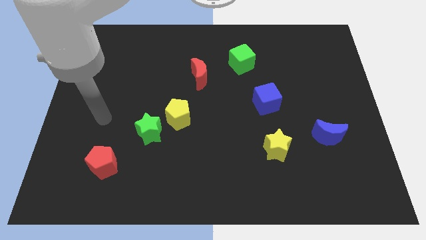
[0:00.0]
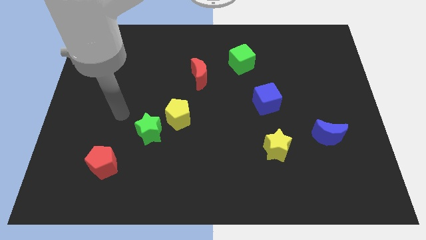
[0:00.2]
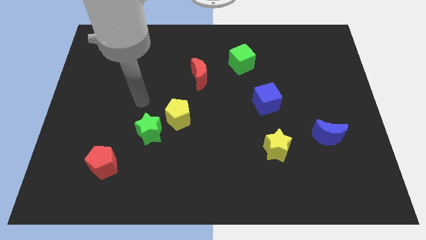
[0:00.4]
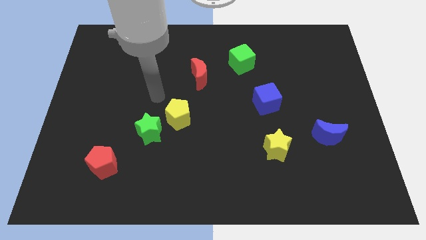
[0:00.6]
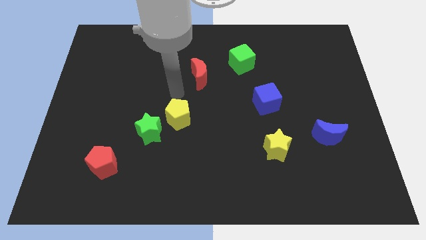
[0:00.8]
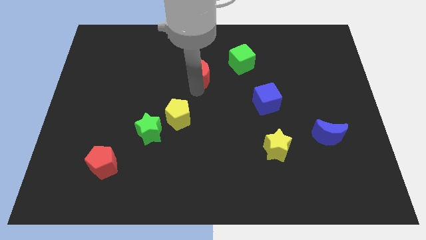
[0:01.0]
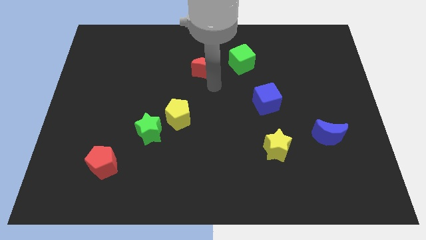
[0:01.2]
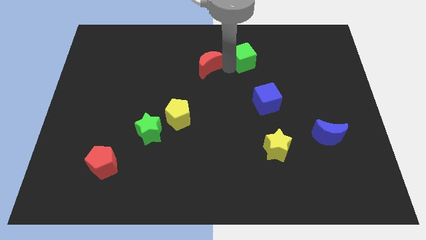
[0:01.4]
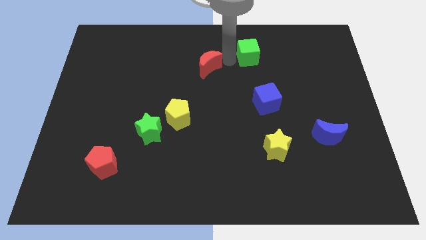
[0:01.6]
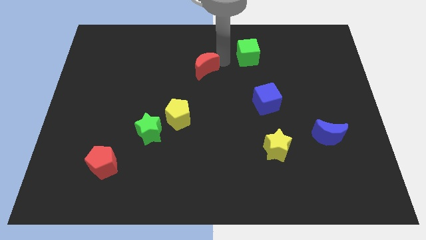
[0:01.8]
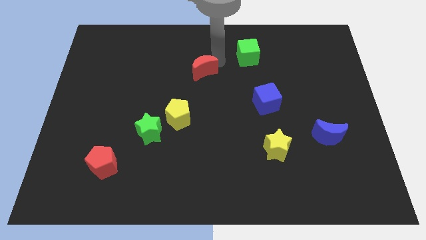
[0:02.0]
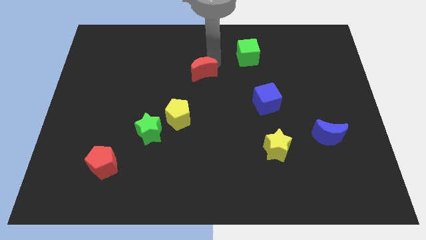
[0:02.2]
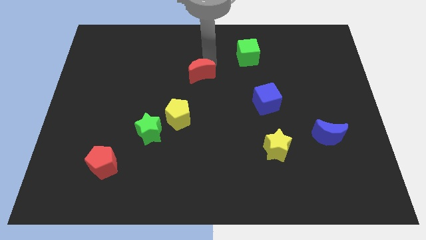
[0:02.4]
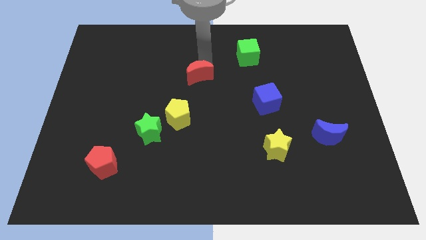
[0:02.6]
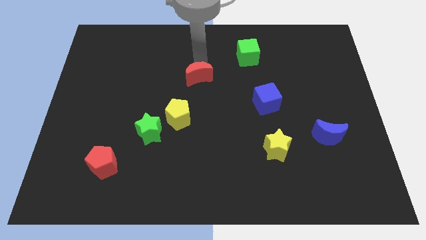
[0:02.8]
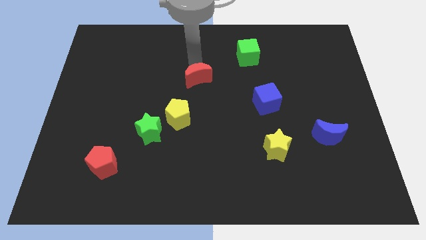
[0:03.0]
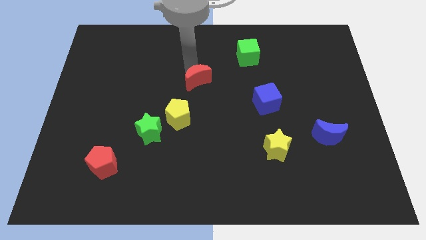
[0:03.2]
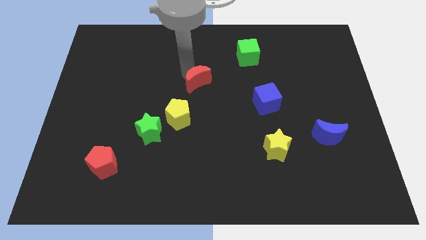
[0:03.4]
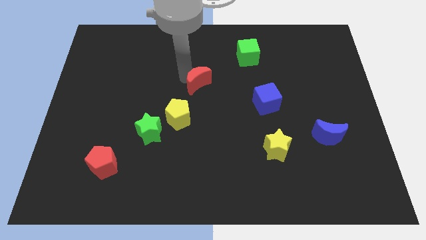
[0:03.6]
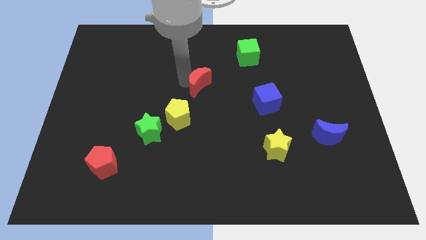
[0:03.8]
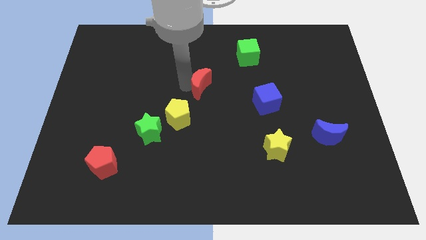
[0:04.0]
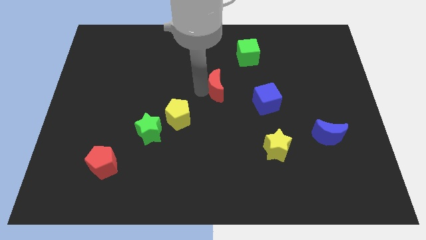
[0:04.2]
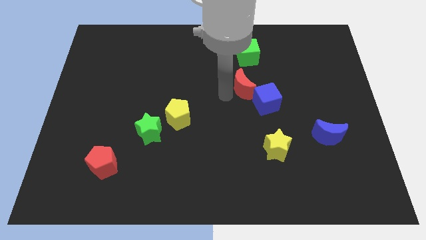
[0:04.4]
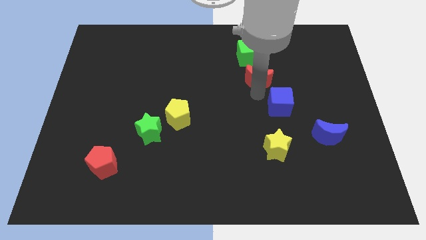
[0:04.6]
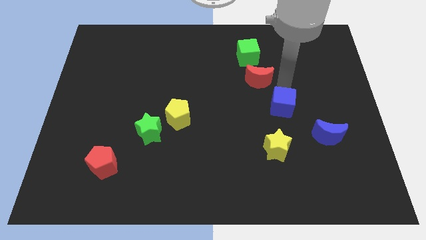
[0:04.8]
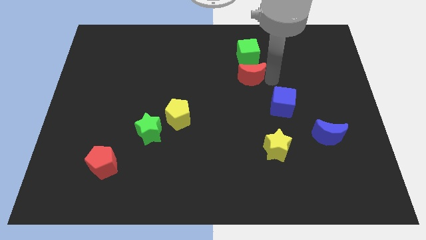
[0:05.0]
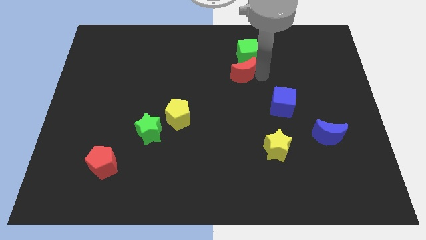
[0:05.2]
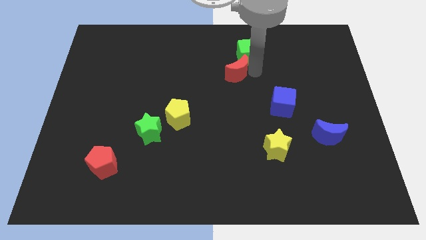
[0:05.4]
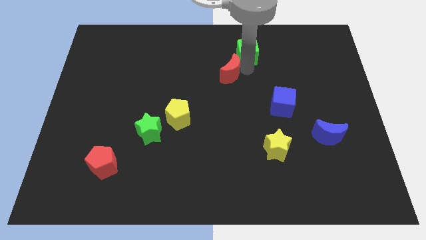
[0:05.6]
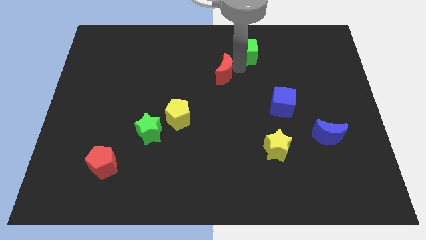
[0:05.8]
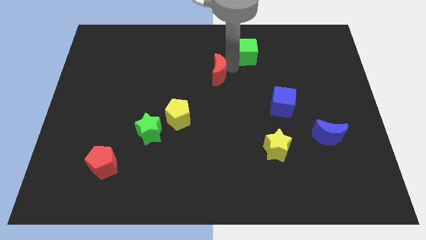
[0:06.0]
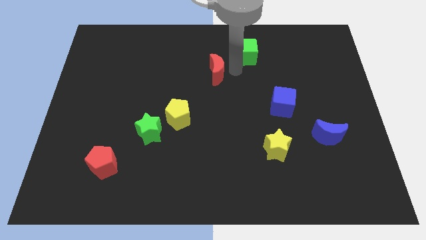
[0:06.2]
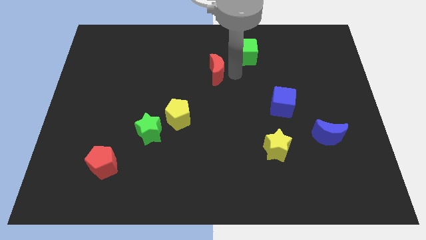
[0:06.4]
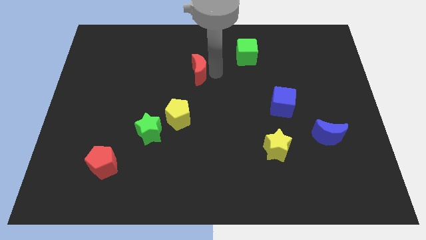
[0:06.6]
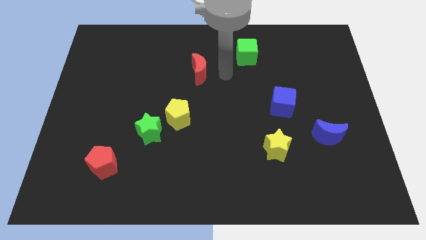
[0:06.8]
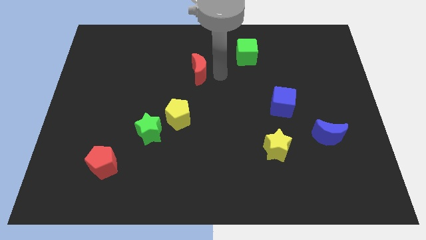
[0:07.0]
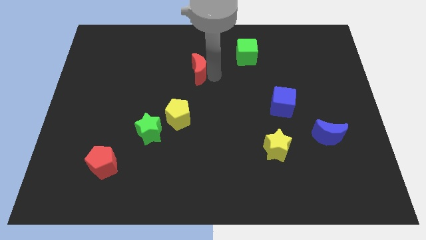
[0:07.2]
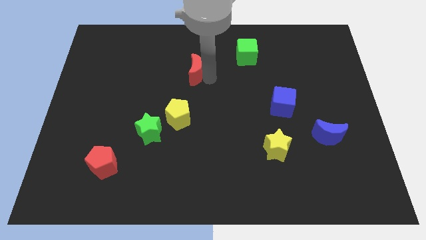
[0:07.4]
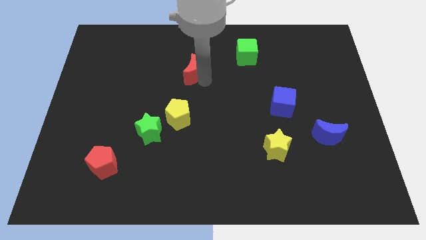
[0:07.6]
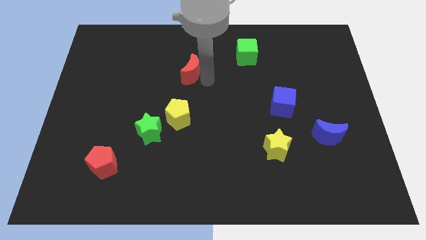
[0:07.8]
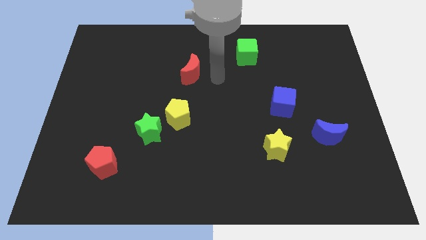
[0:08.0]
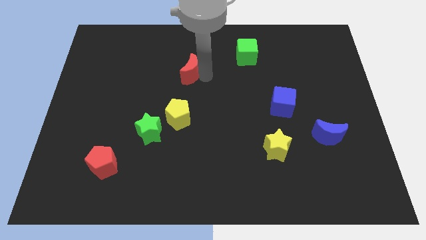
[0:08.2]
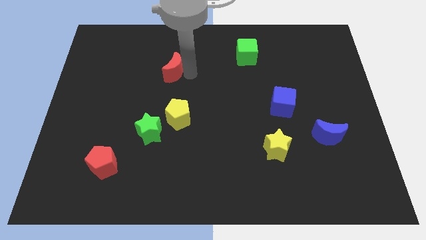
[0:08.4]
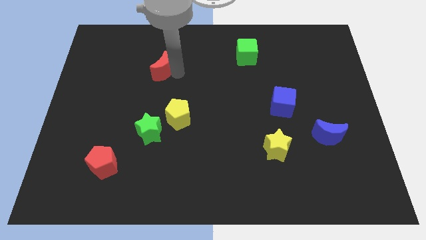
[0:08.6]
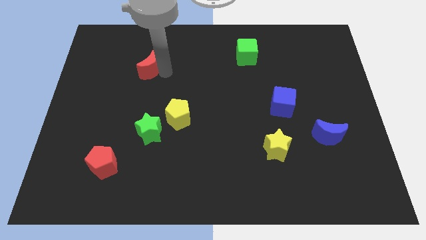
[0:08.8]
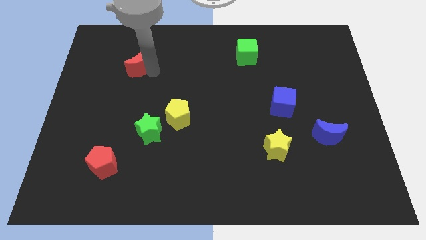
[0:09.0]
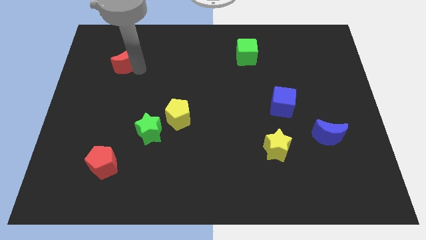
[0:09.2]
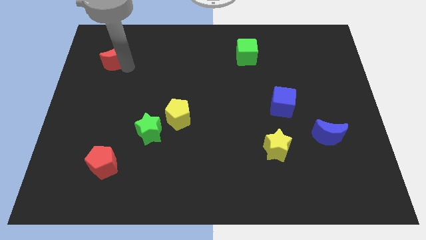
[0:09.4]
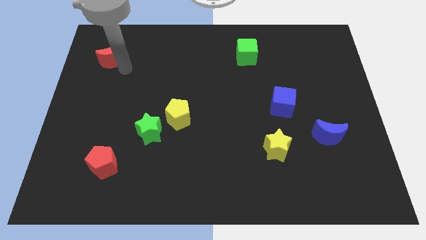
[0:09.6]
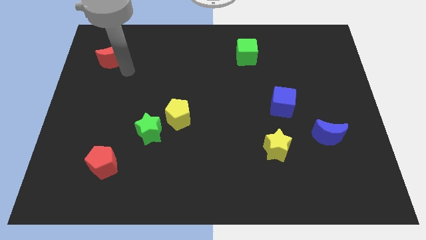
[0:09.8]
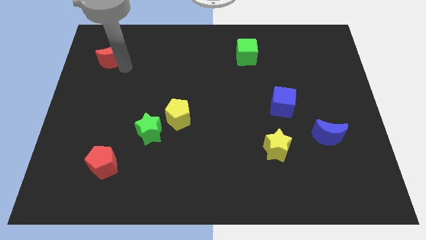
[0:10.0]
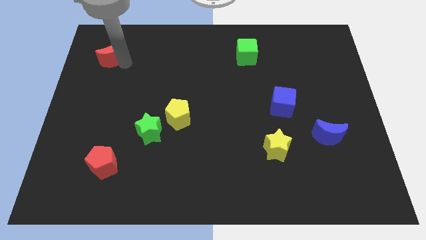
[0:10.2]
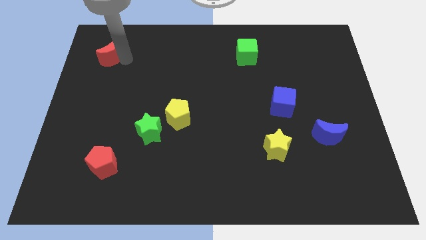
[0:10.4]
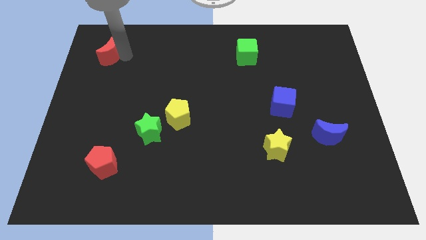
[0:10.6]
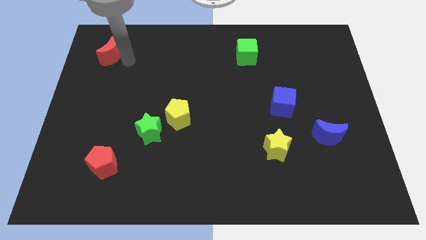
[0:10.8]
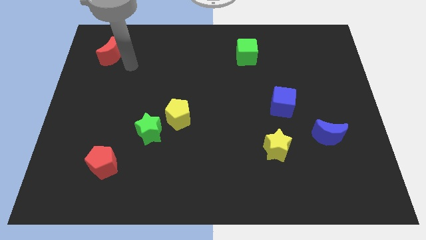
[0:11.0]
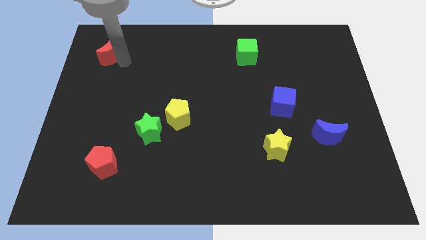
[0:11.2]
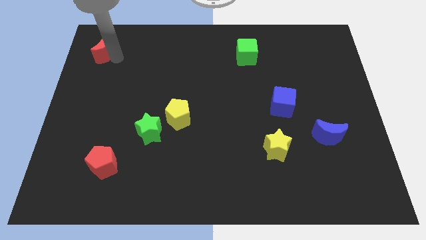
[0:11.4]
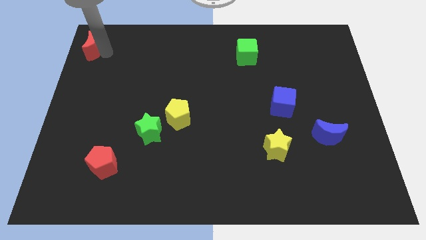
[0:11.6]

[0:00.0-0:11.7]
put the red moon to the top left corner

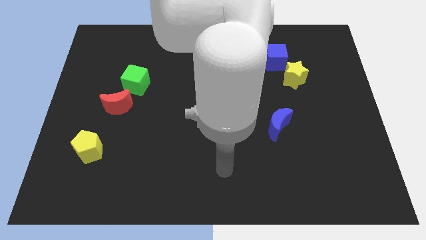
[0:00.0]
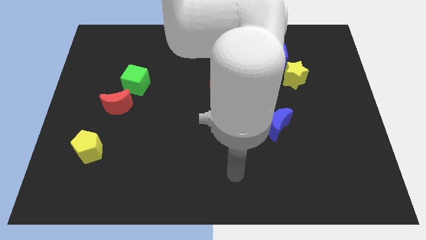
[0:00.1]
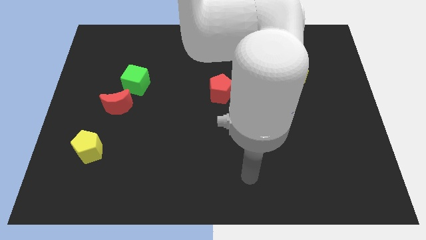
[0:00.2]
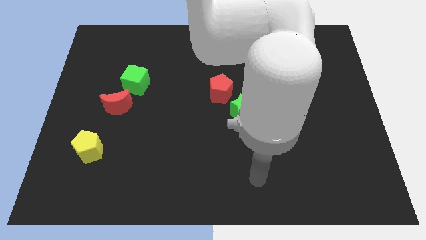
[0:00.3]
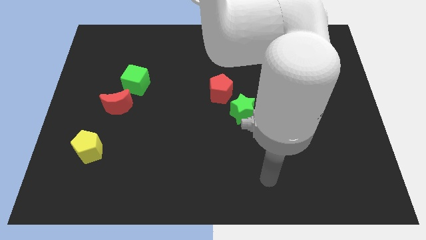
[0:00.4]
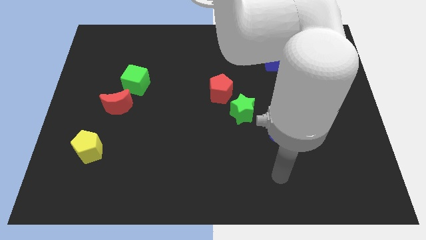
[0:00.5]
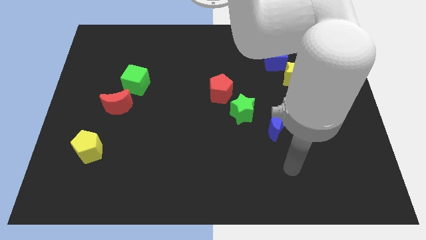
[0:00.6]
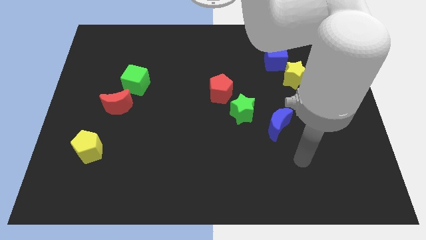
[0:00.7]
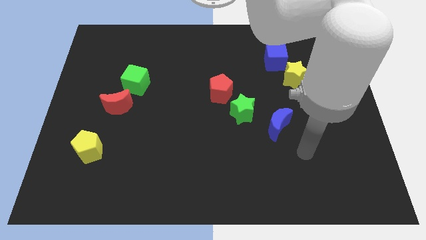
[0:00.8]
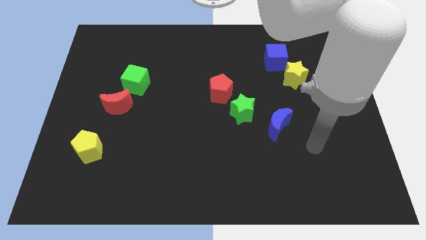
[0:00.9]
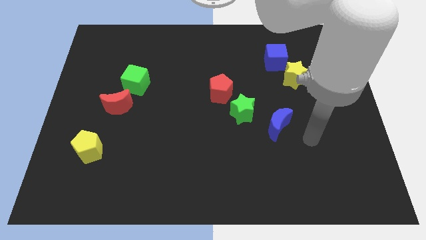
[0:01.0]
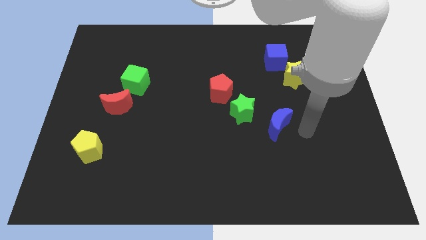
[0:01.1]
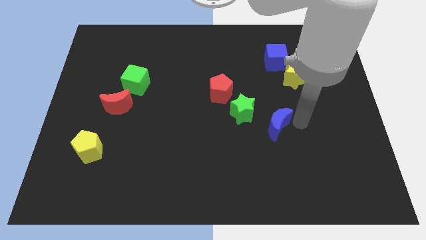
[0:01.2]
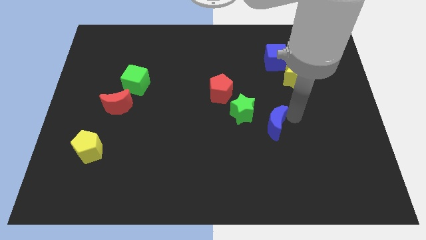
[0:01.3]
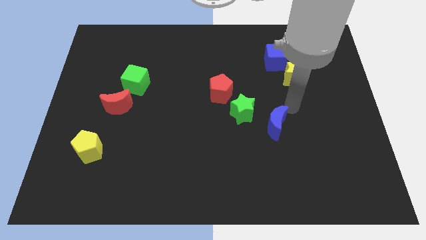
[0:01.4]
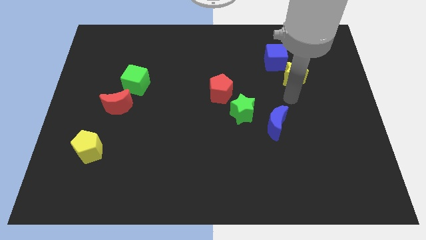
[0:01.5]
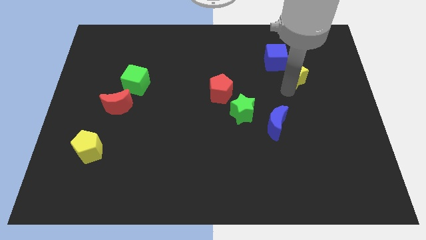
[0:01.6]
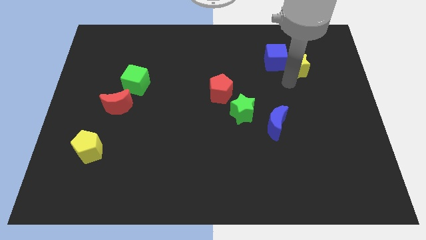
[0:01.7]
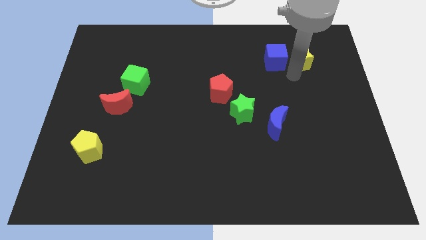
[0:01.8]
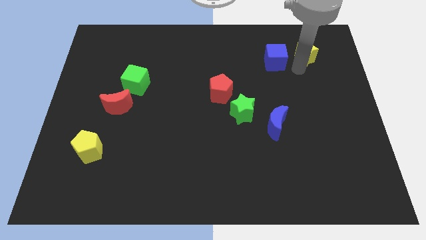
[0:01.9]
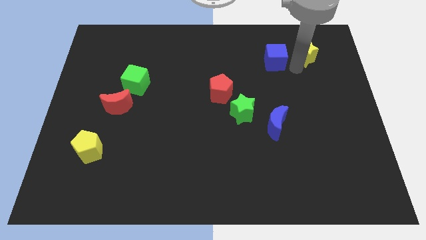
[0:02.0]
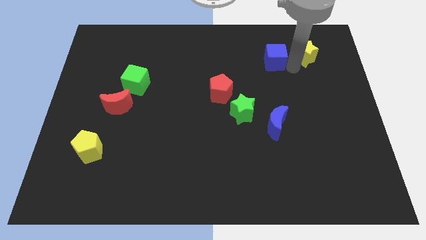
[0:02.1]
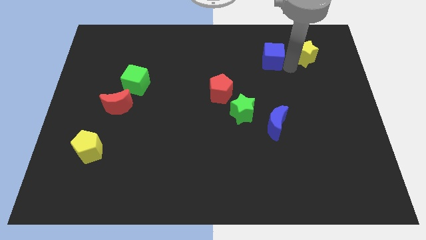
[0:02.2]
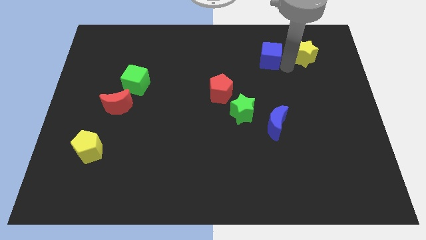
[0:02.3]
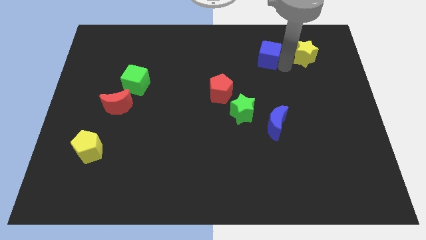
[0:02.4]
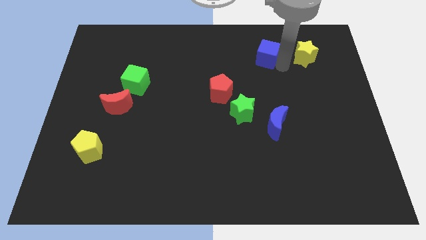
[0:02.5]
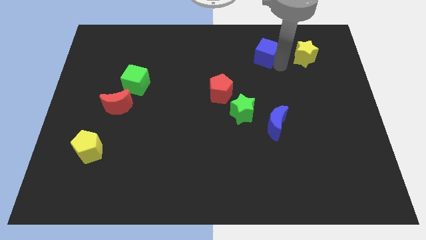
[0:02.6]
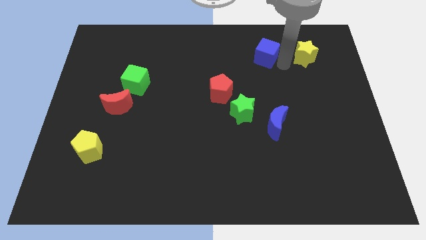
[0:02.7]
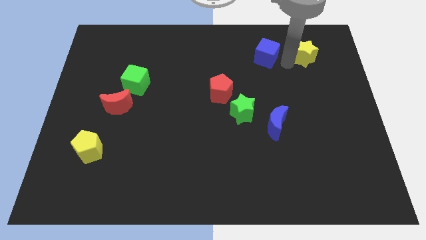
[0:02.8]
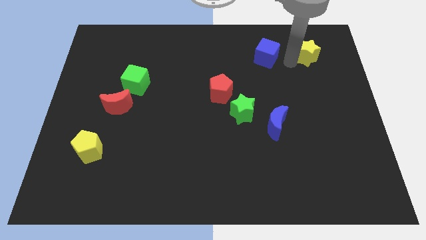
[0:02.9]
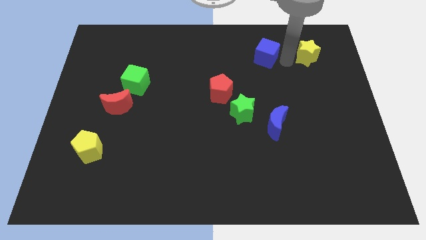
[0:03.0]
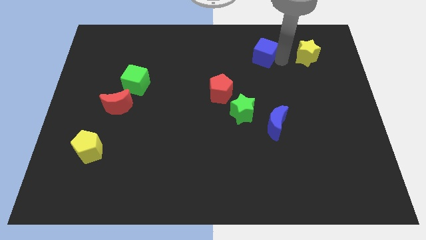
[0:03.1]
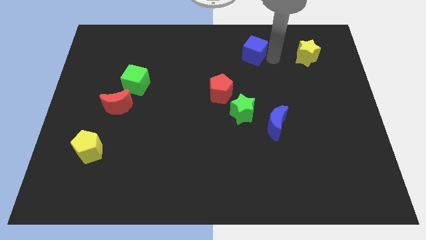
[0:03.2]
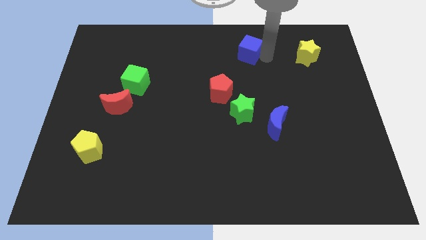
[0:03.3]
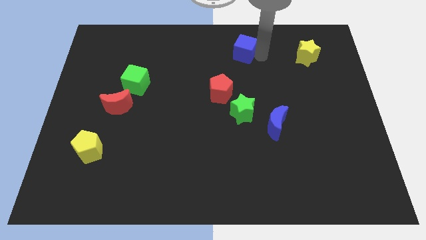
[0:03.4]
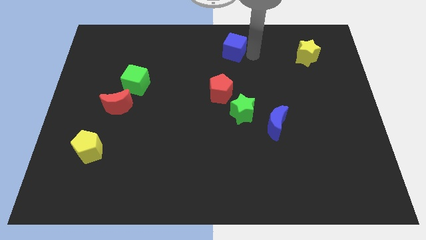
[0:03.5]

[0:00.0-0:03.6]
put the blue cube to the towards your base
